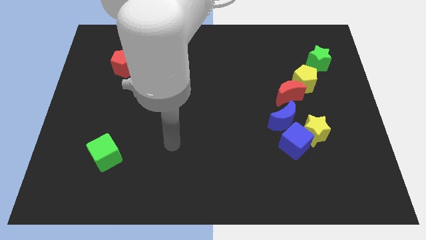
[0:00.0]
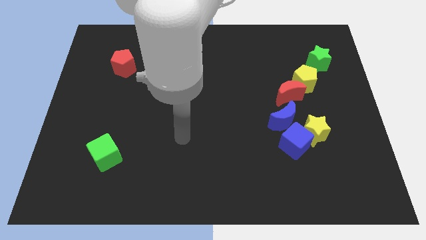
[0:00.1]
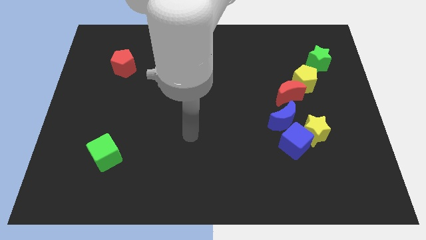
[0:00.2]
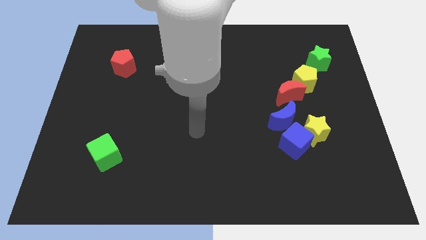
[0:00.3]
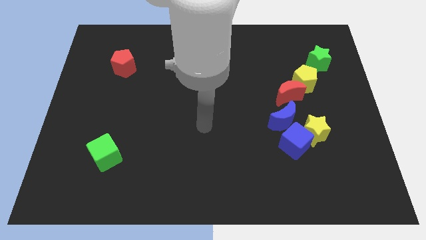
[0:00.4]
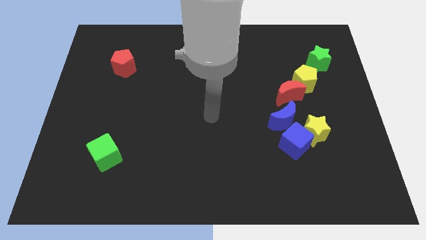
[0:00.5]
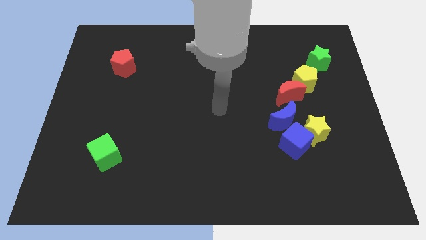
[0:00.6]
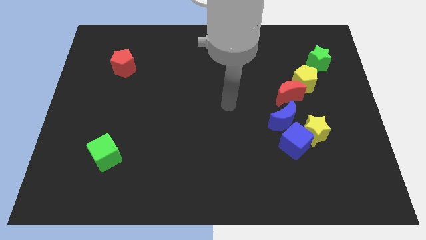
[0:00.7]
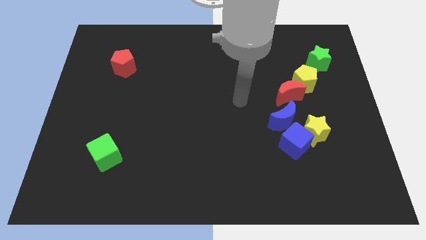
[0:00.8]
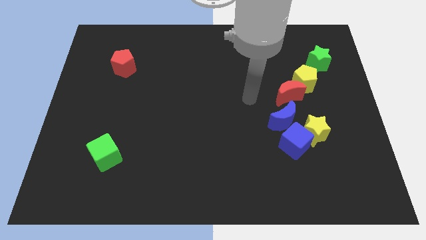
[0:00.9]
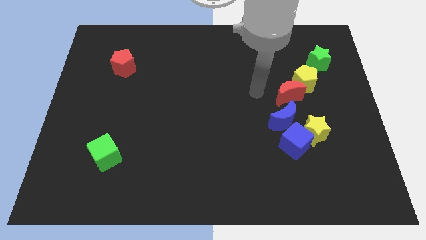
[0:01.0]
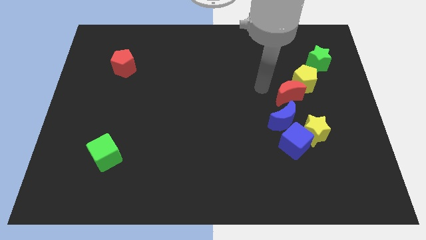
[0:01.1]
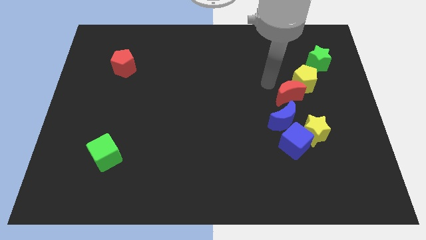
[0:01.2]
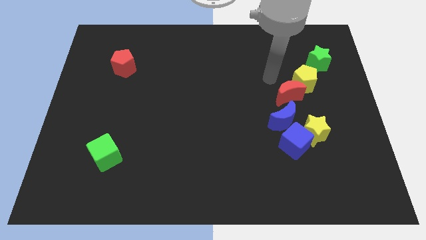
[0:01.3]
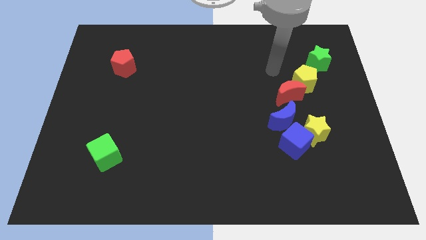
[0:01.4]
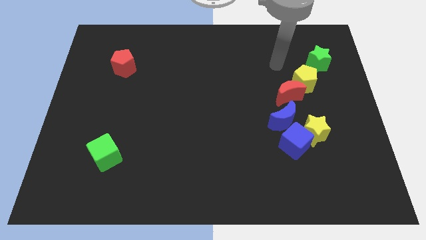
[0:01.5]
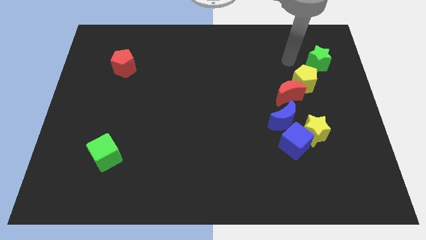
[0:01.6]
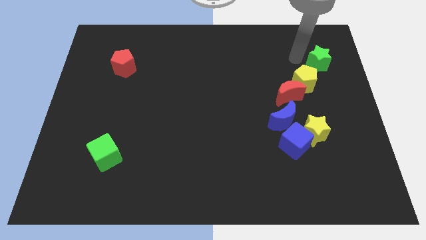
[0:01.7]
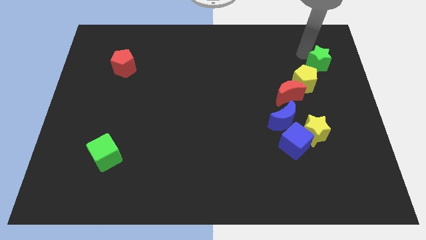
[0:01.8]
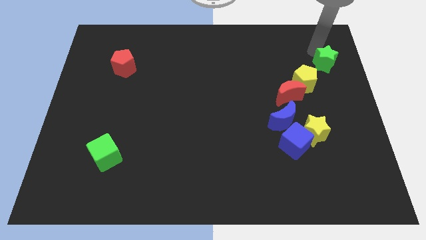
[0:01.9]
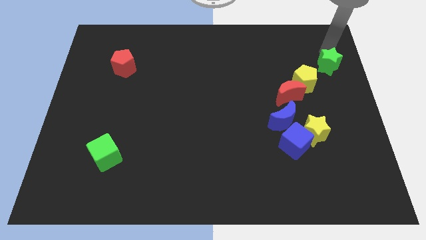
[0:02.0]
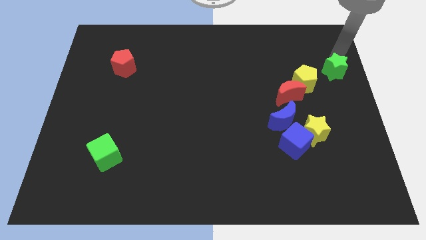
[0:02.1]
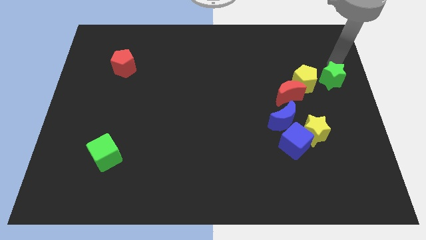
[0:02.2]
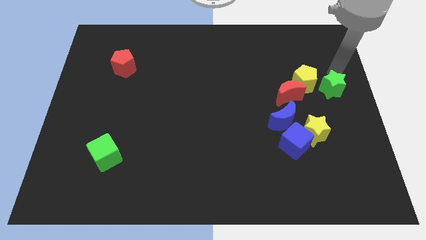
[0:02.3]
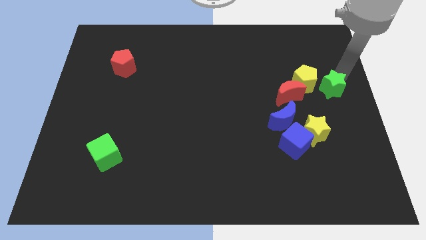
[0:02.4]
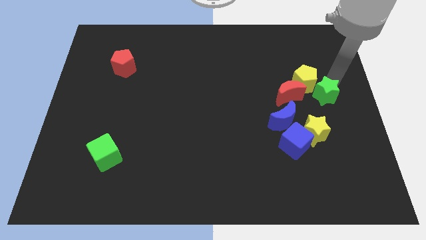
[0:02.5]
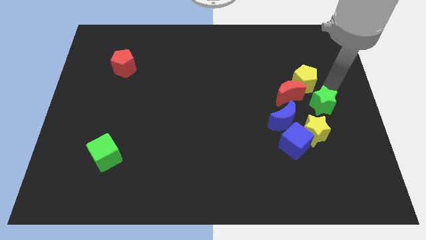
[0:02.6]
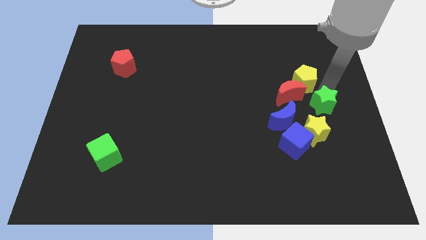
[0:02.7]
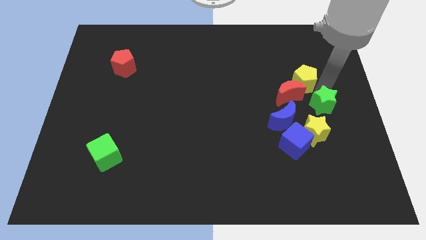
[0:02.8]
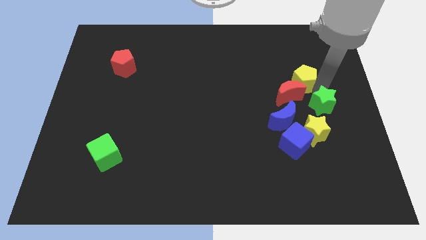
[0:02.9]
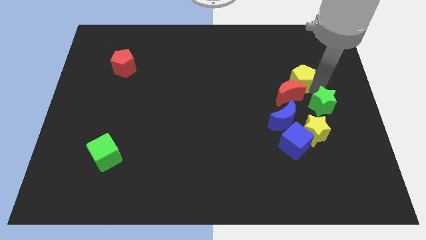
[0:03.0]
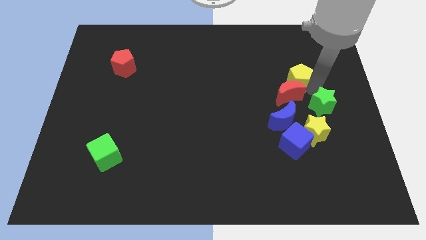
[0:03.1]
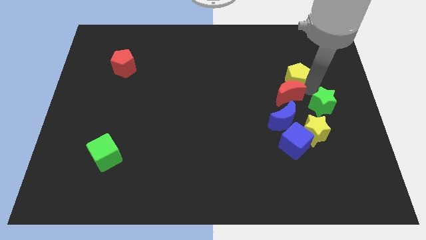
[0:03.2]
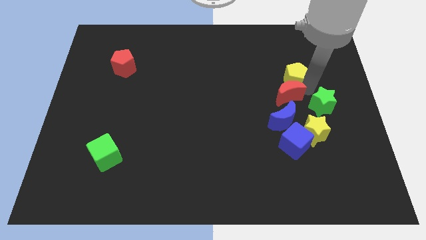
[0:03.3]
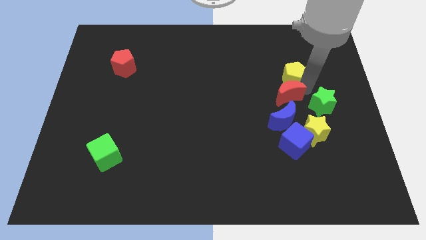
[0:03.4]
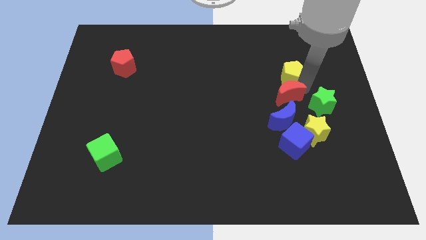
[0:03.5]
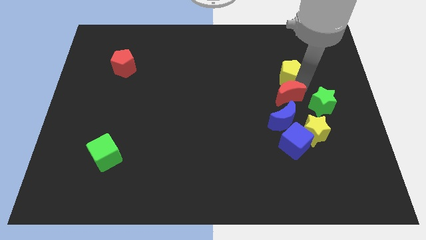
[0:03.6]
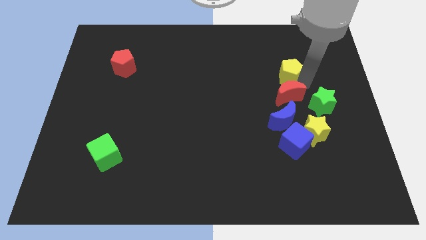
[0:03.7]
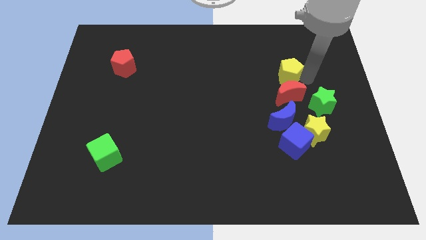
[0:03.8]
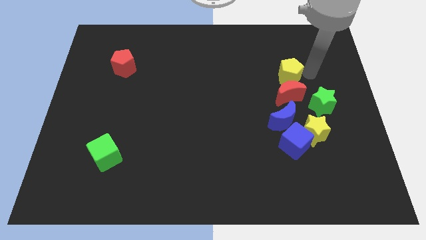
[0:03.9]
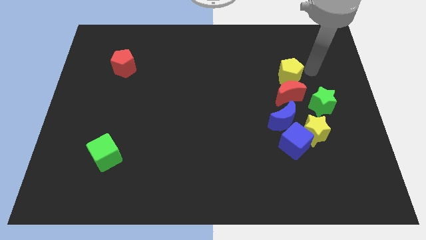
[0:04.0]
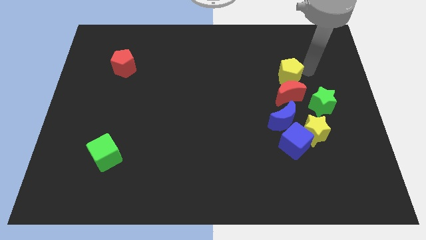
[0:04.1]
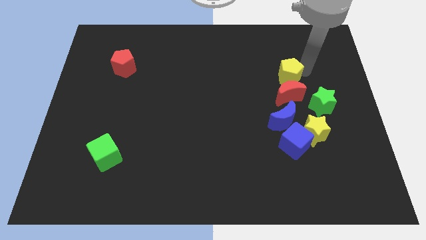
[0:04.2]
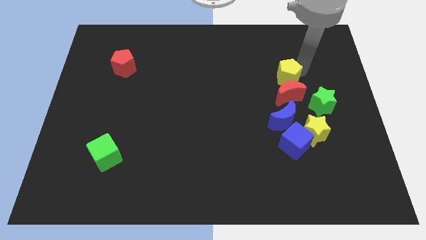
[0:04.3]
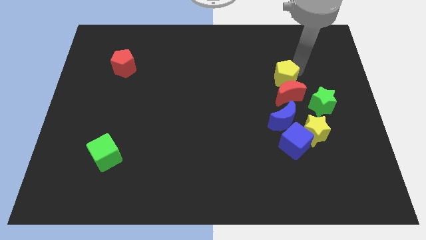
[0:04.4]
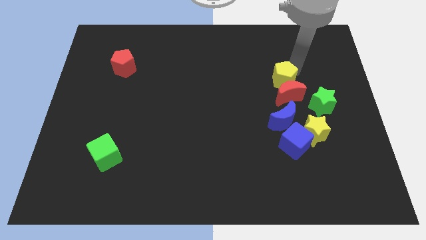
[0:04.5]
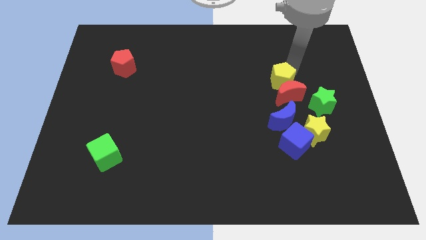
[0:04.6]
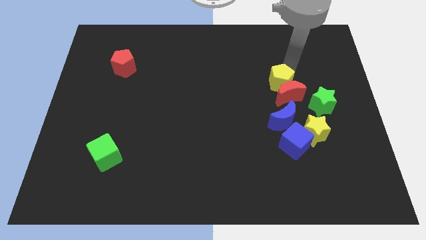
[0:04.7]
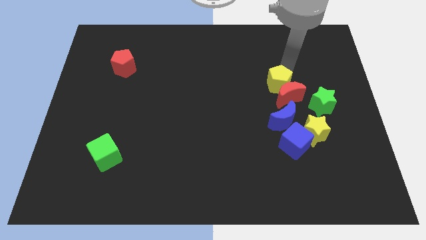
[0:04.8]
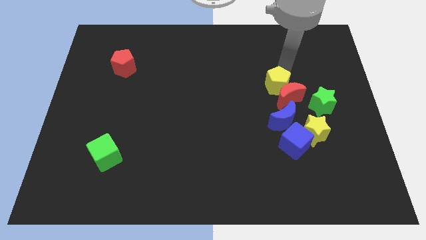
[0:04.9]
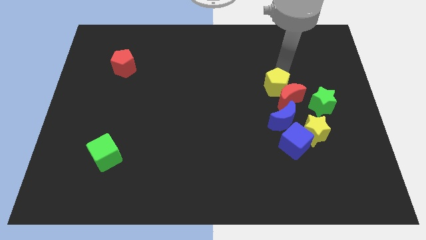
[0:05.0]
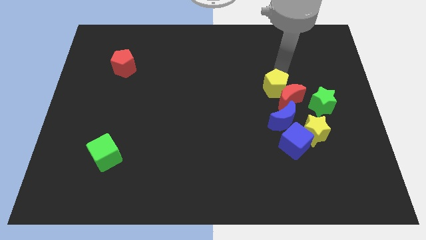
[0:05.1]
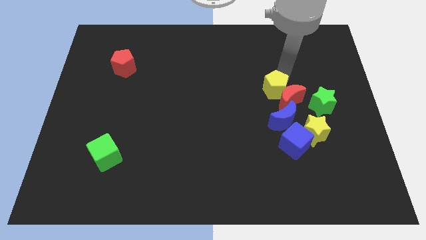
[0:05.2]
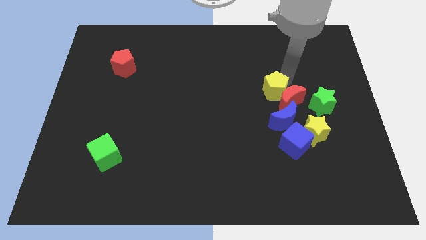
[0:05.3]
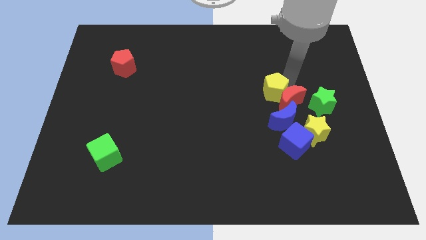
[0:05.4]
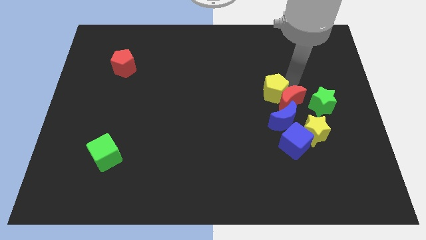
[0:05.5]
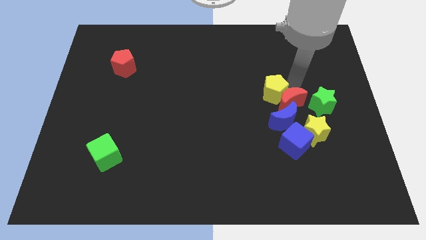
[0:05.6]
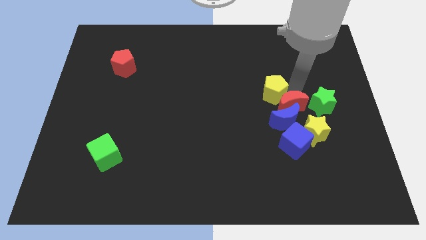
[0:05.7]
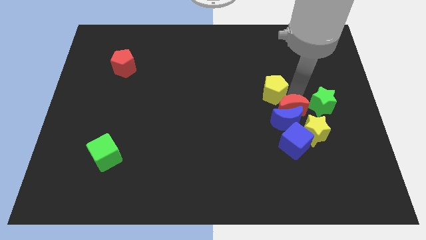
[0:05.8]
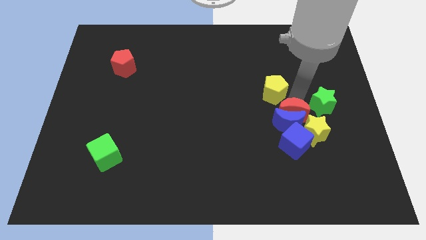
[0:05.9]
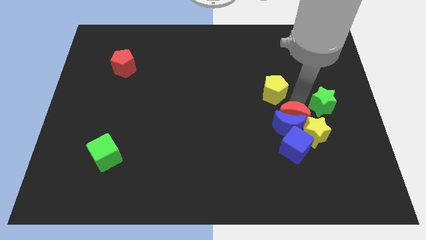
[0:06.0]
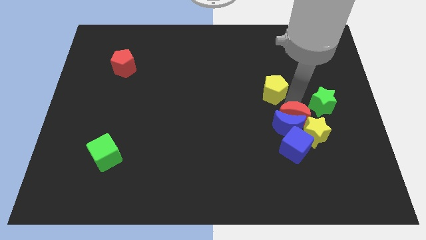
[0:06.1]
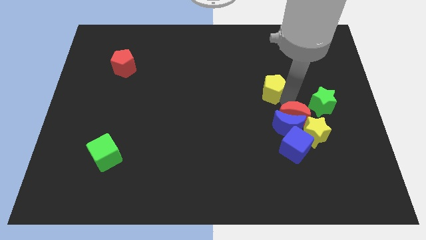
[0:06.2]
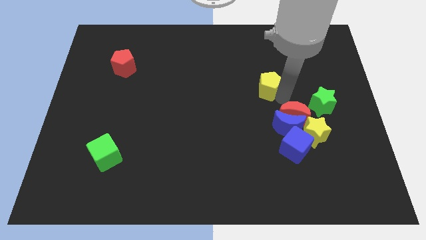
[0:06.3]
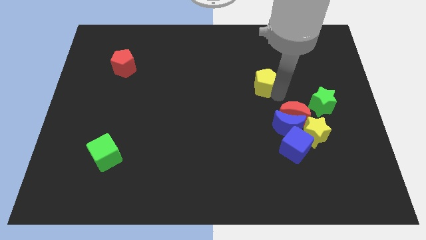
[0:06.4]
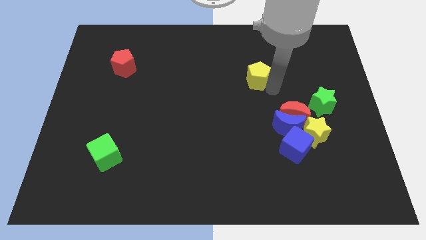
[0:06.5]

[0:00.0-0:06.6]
push the yellow pentagon to the center of the board
